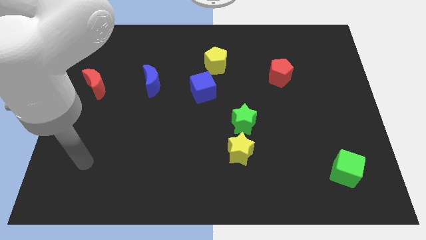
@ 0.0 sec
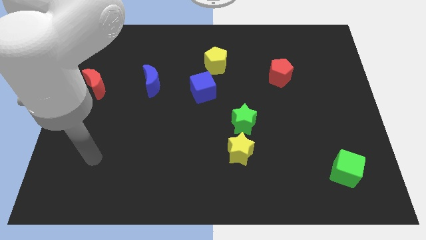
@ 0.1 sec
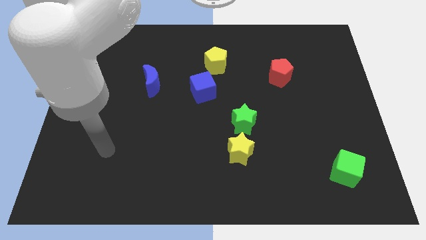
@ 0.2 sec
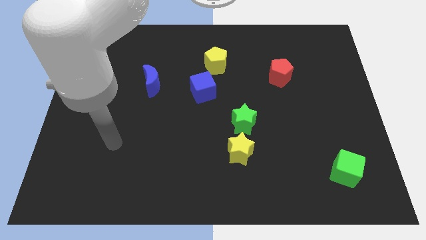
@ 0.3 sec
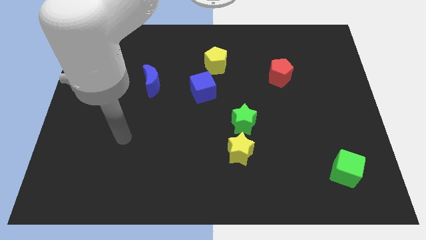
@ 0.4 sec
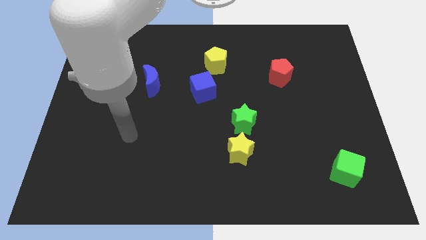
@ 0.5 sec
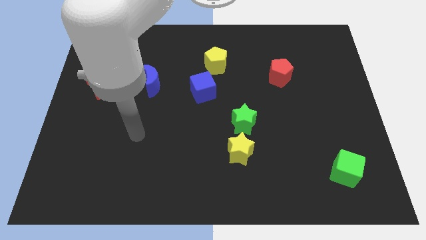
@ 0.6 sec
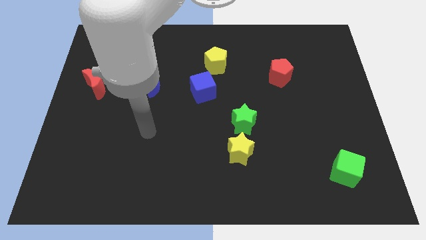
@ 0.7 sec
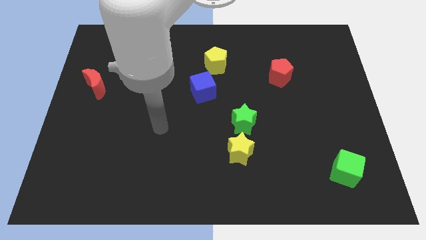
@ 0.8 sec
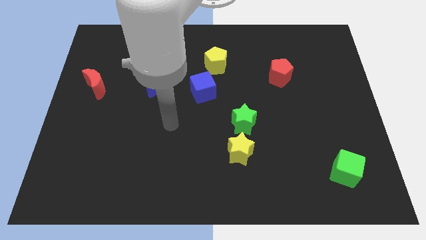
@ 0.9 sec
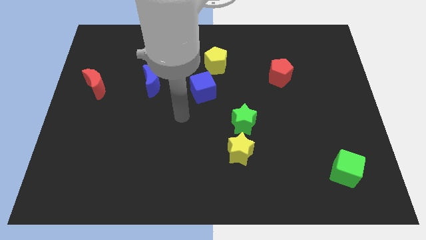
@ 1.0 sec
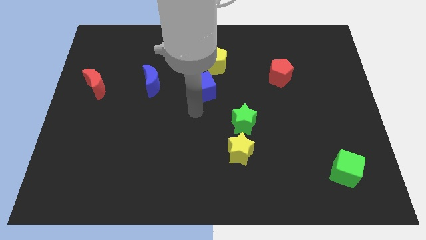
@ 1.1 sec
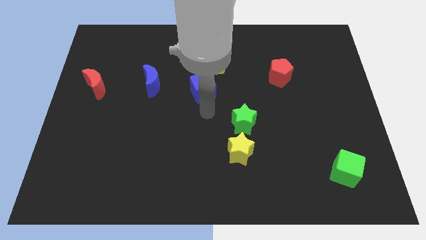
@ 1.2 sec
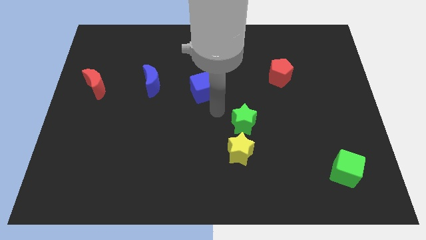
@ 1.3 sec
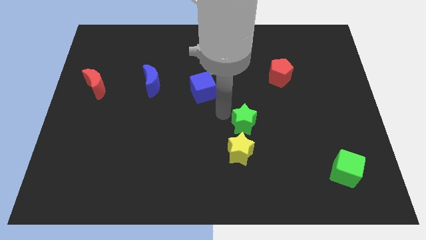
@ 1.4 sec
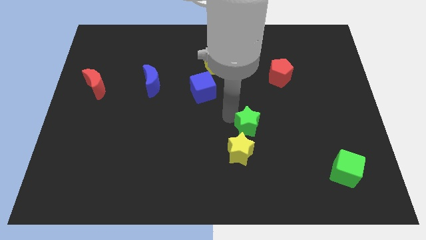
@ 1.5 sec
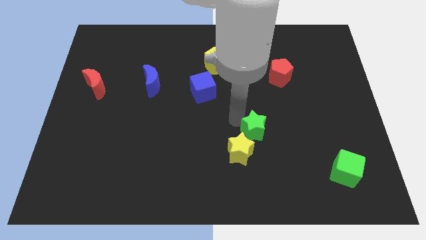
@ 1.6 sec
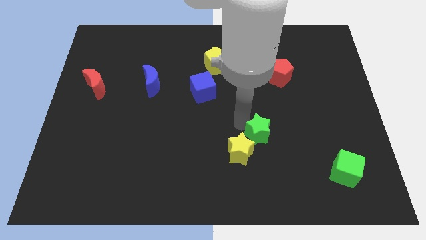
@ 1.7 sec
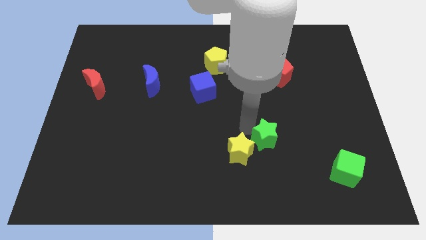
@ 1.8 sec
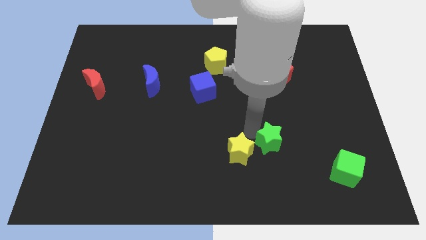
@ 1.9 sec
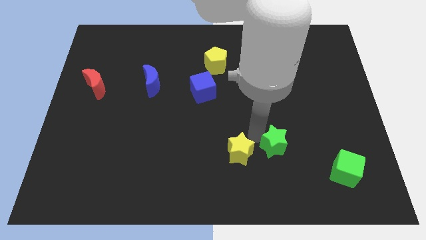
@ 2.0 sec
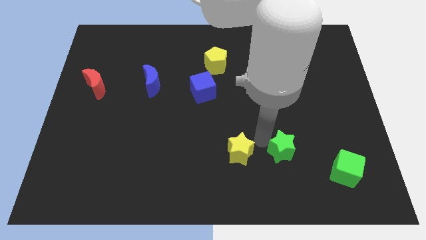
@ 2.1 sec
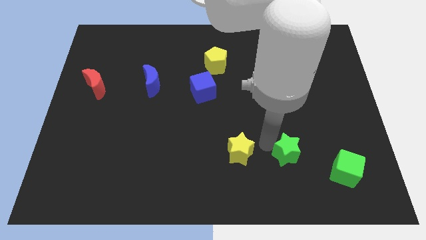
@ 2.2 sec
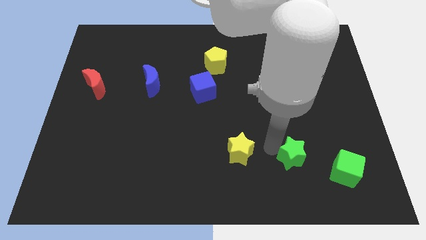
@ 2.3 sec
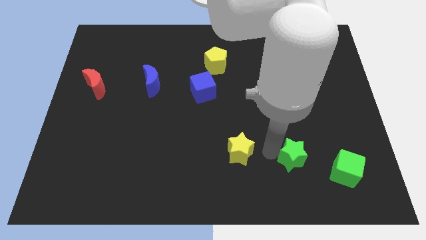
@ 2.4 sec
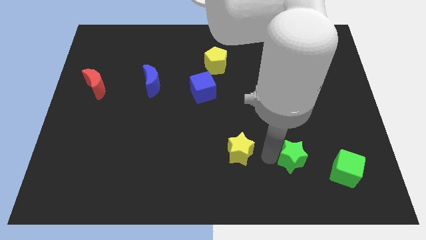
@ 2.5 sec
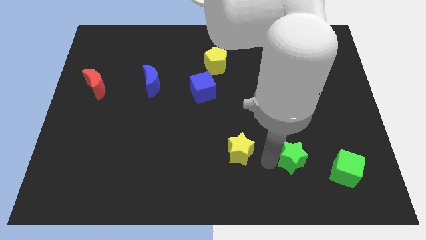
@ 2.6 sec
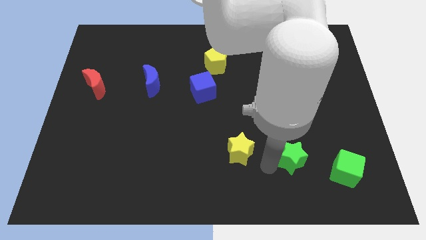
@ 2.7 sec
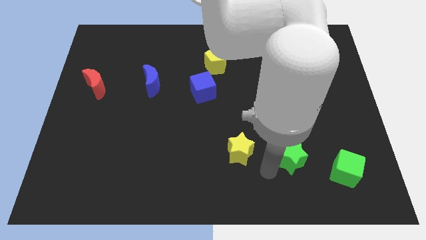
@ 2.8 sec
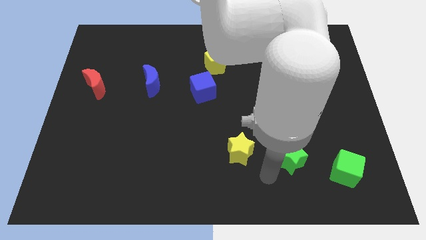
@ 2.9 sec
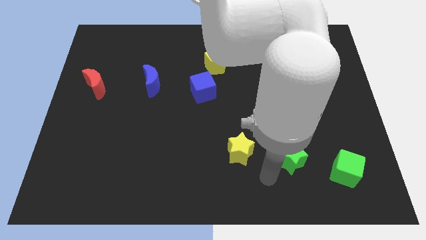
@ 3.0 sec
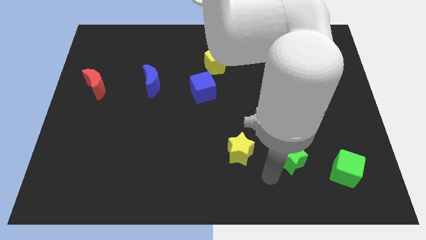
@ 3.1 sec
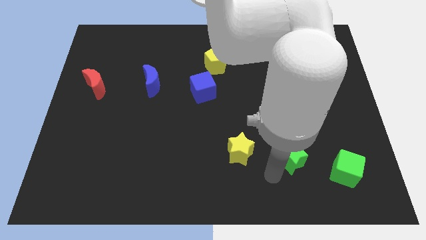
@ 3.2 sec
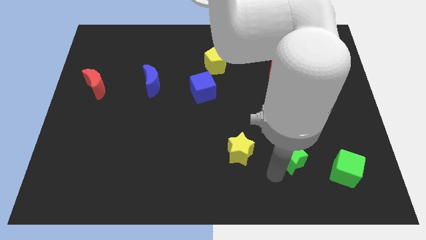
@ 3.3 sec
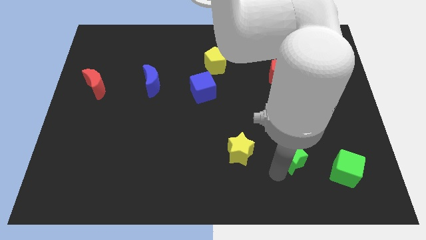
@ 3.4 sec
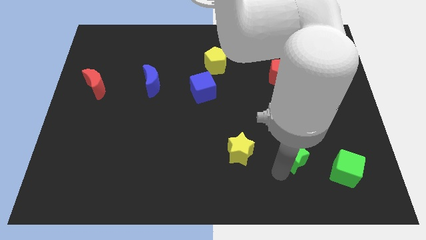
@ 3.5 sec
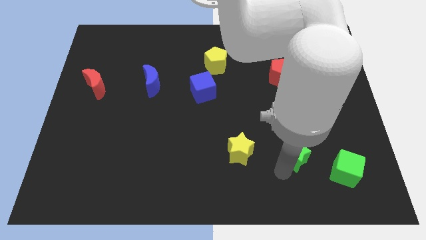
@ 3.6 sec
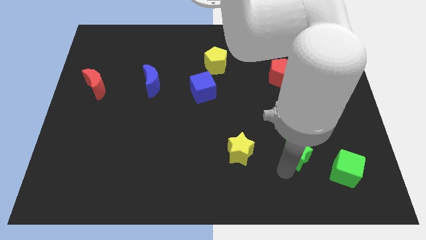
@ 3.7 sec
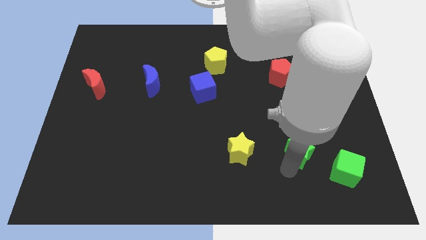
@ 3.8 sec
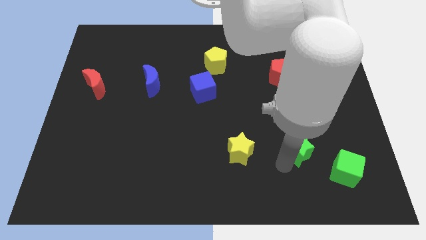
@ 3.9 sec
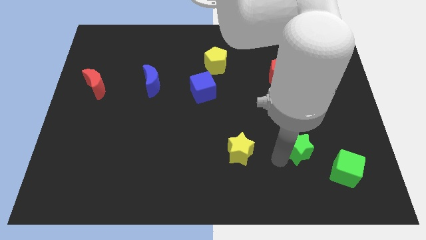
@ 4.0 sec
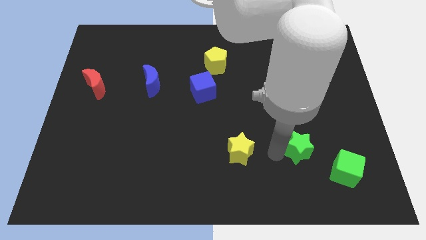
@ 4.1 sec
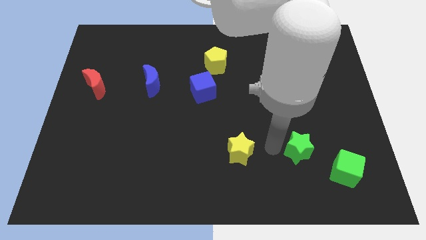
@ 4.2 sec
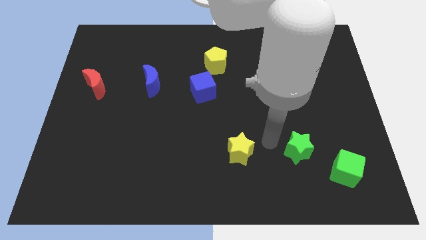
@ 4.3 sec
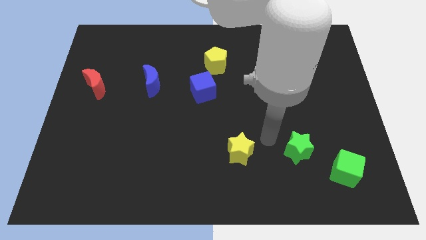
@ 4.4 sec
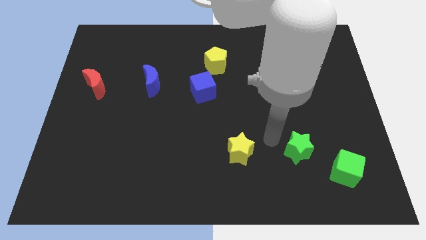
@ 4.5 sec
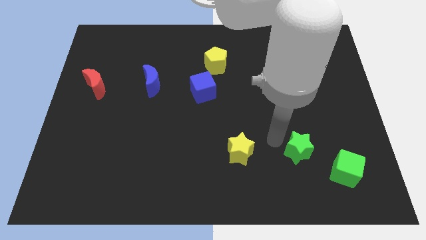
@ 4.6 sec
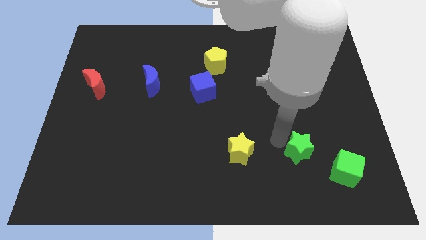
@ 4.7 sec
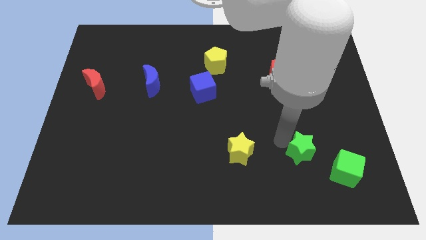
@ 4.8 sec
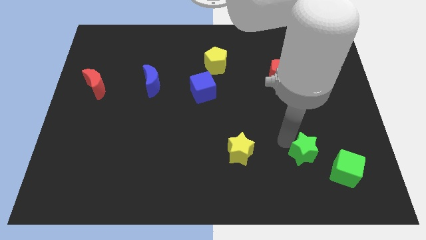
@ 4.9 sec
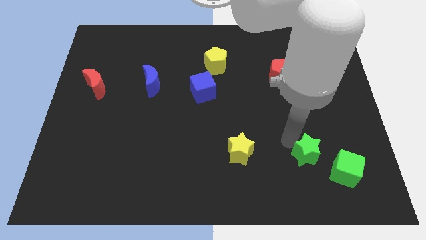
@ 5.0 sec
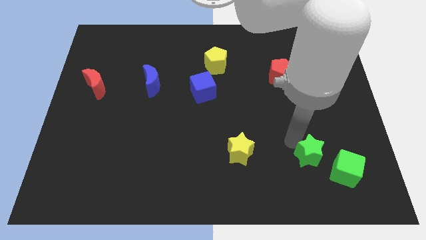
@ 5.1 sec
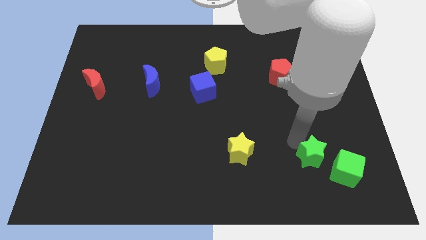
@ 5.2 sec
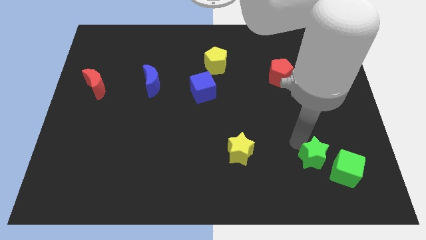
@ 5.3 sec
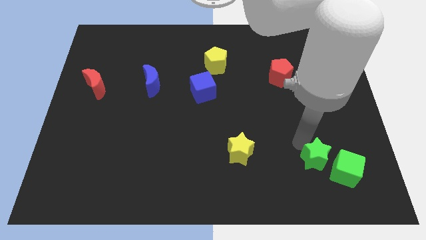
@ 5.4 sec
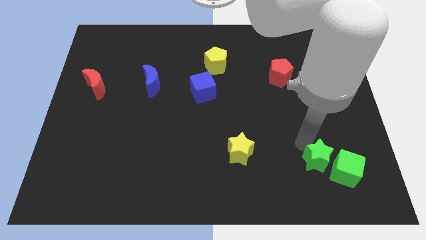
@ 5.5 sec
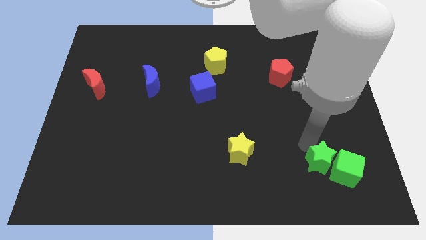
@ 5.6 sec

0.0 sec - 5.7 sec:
slide the green star next to the green cube

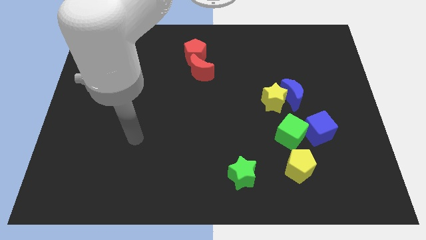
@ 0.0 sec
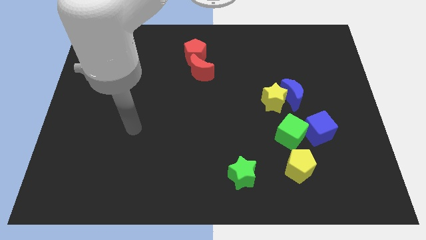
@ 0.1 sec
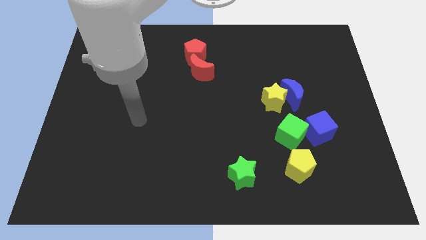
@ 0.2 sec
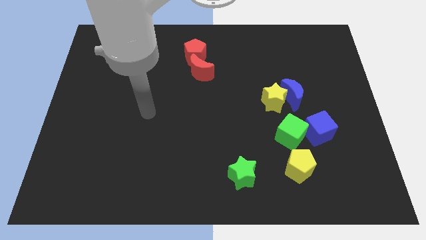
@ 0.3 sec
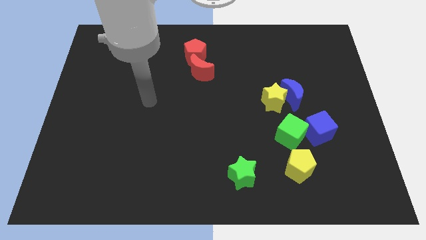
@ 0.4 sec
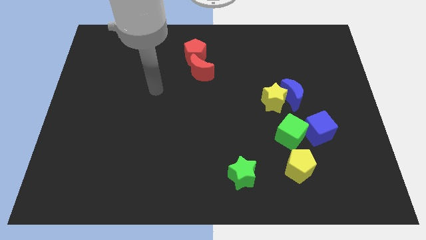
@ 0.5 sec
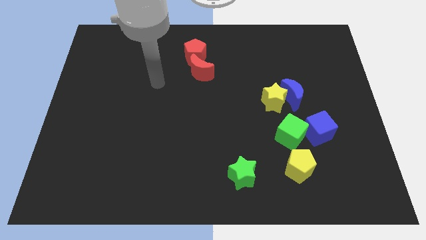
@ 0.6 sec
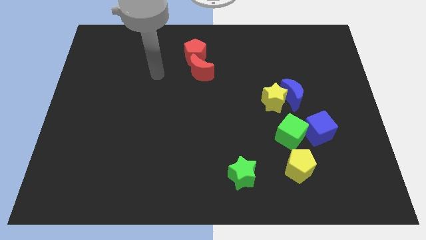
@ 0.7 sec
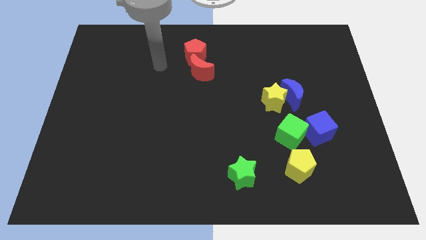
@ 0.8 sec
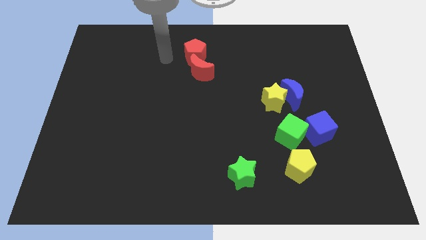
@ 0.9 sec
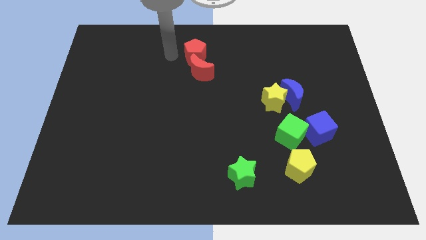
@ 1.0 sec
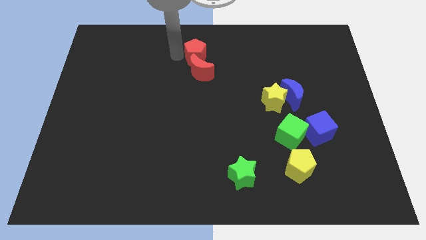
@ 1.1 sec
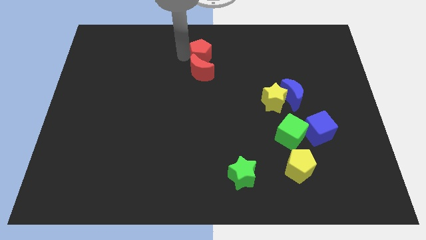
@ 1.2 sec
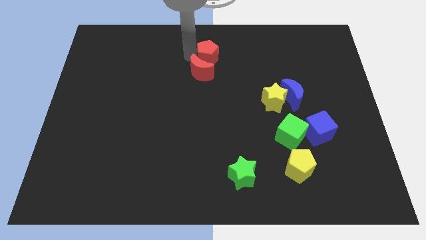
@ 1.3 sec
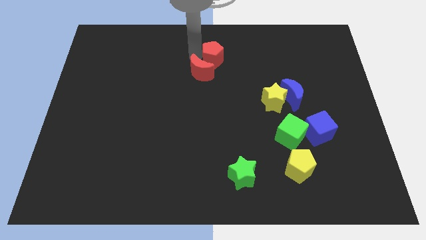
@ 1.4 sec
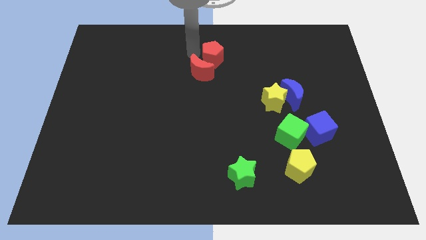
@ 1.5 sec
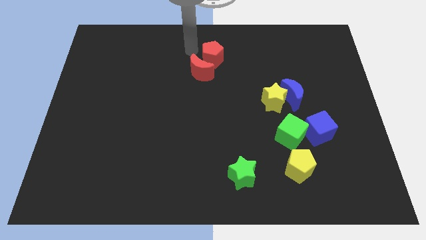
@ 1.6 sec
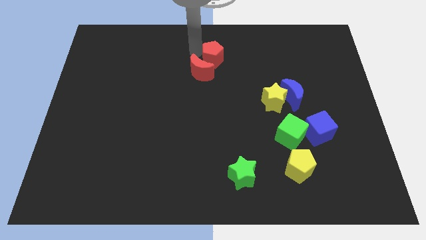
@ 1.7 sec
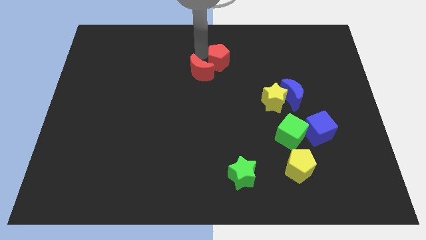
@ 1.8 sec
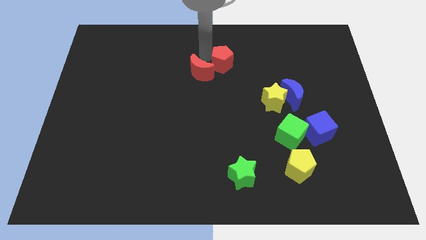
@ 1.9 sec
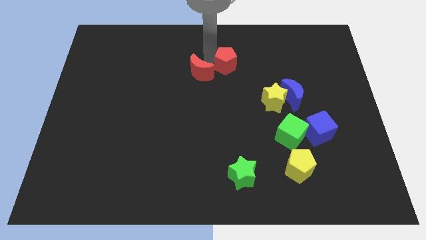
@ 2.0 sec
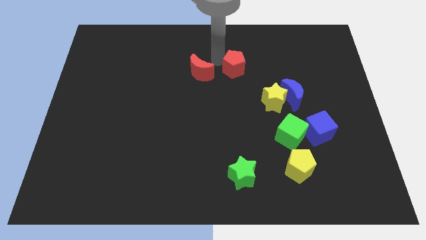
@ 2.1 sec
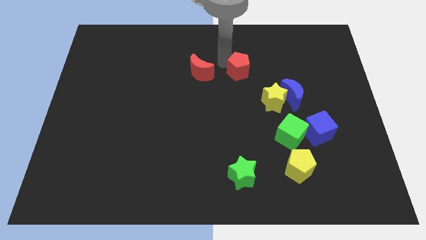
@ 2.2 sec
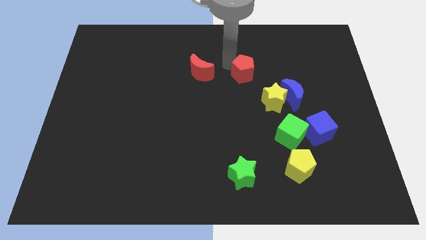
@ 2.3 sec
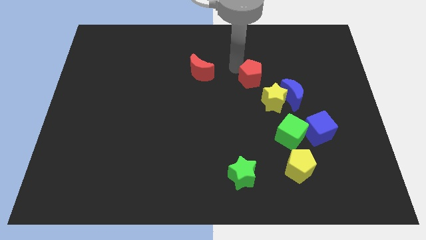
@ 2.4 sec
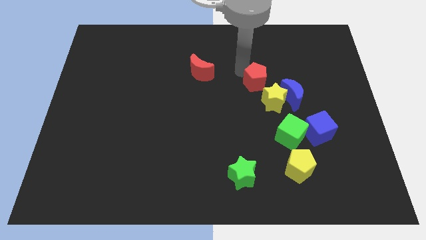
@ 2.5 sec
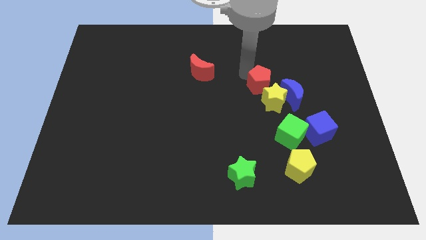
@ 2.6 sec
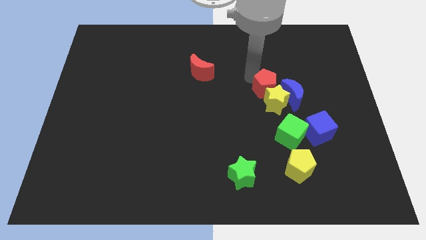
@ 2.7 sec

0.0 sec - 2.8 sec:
put the red pentagon towards the yellow star
